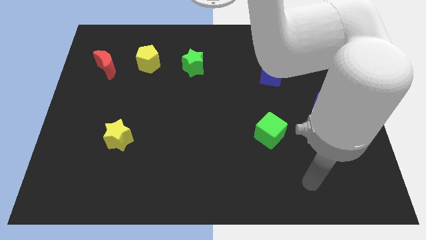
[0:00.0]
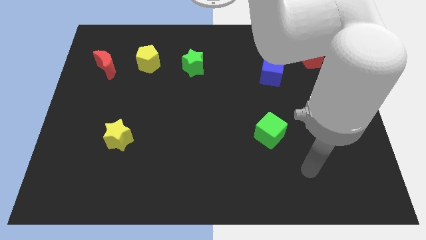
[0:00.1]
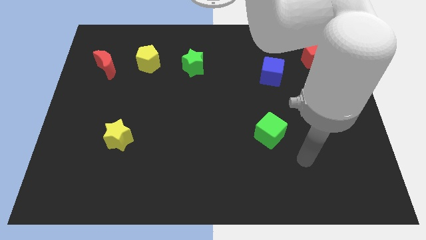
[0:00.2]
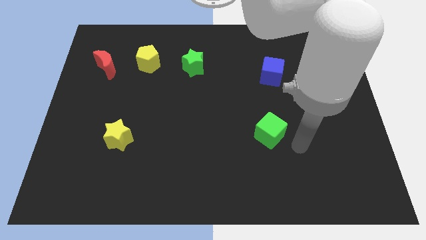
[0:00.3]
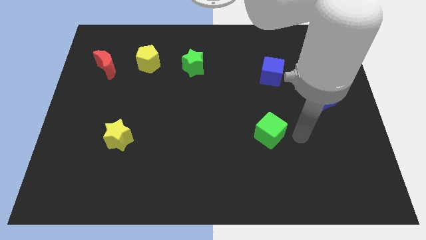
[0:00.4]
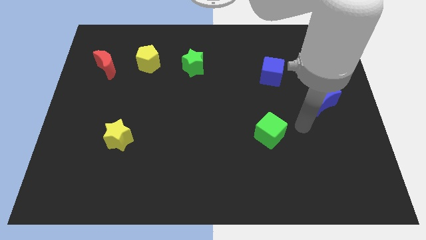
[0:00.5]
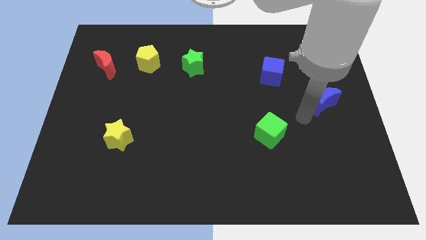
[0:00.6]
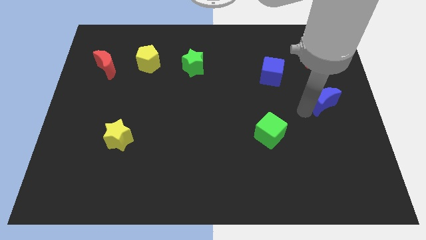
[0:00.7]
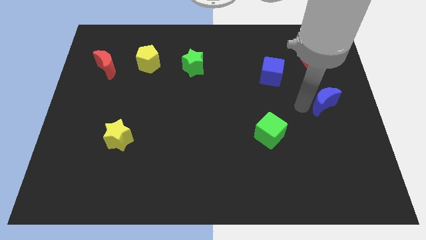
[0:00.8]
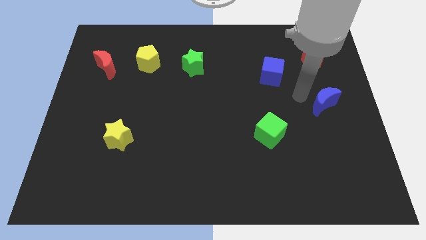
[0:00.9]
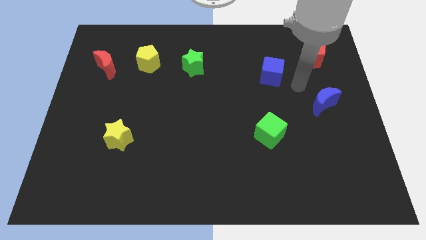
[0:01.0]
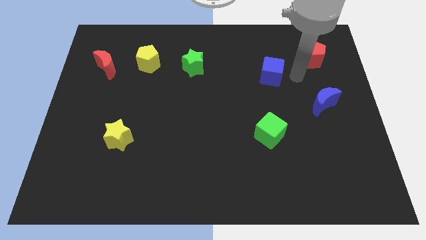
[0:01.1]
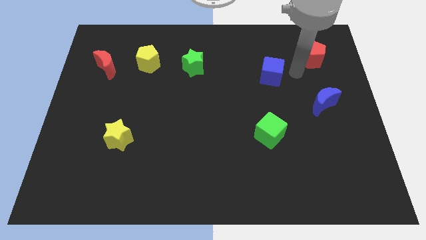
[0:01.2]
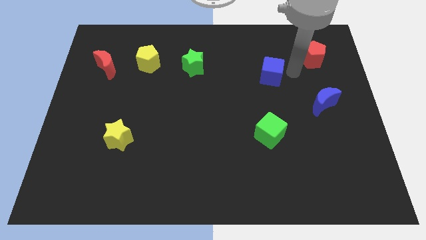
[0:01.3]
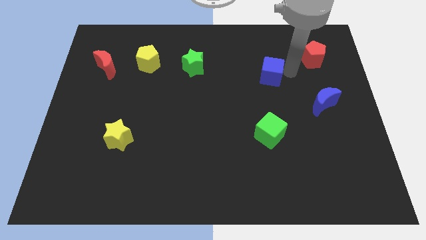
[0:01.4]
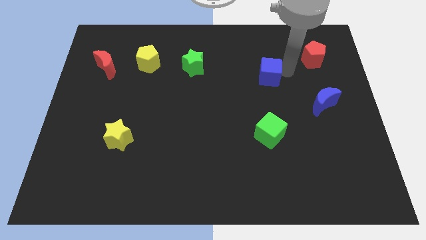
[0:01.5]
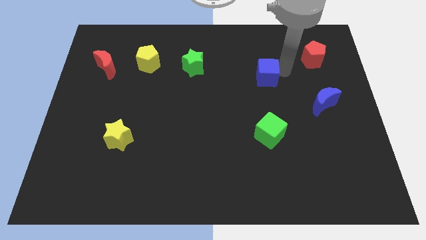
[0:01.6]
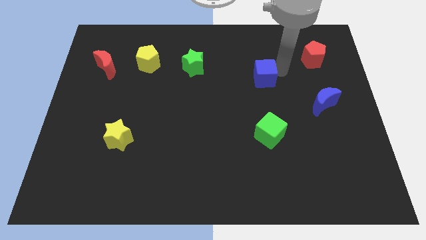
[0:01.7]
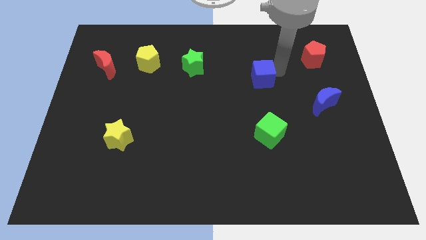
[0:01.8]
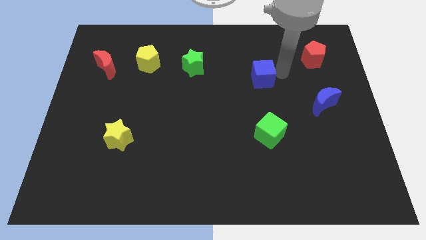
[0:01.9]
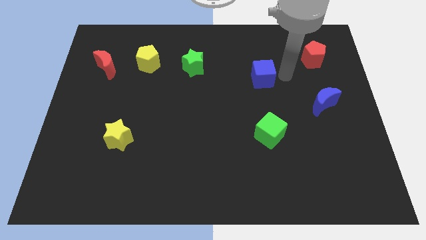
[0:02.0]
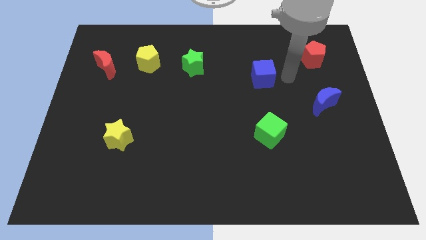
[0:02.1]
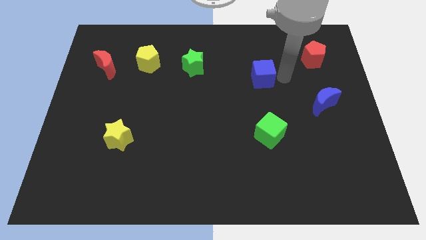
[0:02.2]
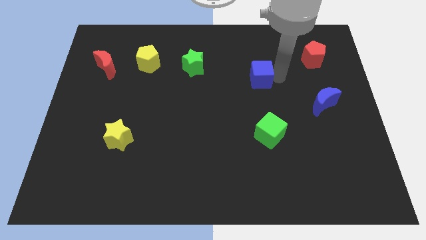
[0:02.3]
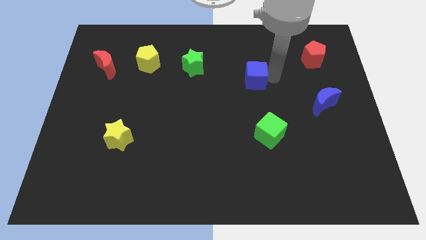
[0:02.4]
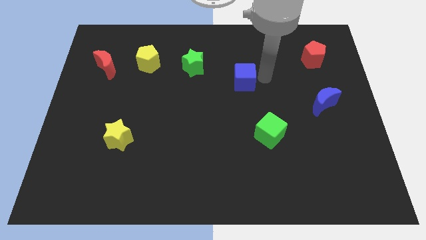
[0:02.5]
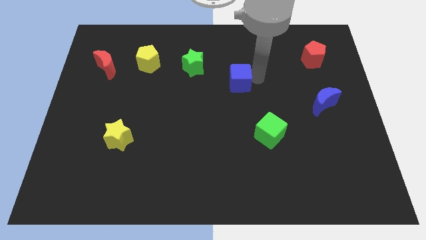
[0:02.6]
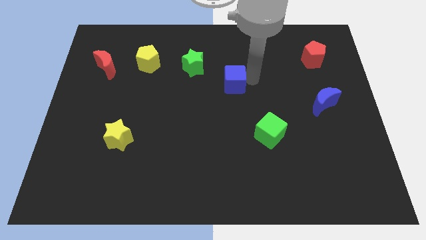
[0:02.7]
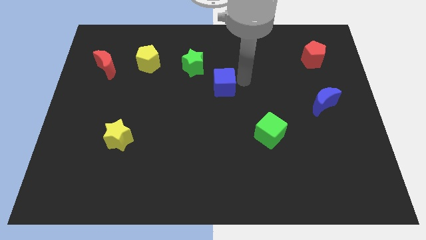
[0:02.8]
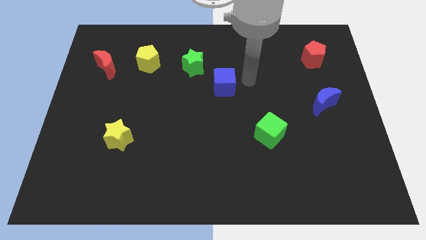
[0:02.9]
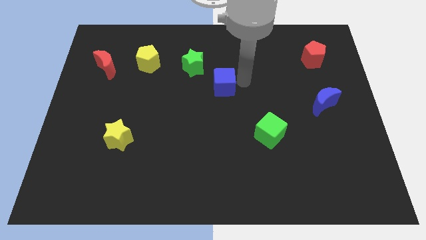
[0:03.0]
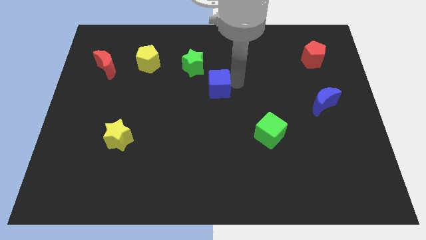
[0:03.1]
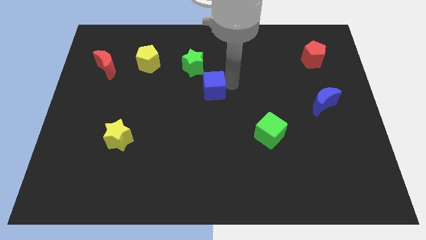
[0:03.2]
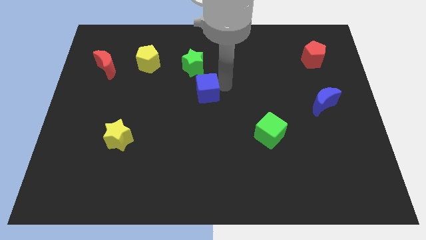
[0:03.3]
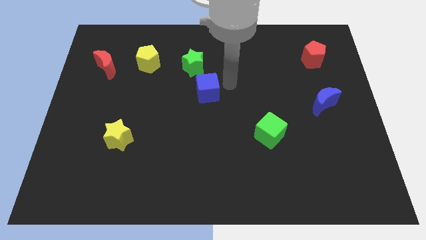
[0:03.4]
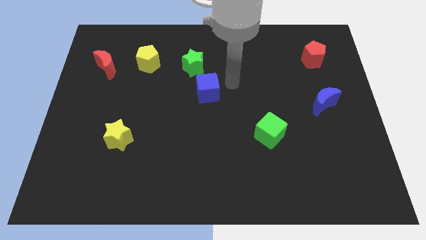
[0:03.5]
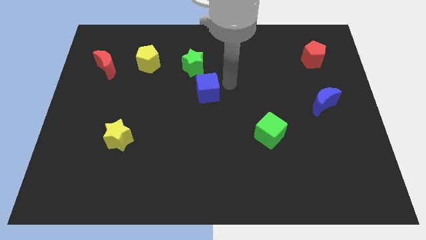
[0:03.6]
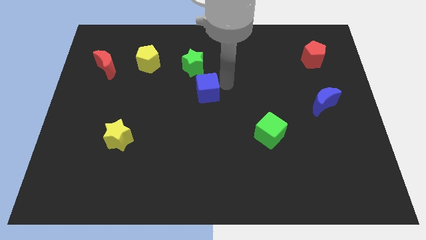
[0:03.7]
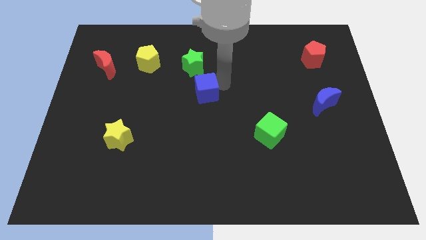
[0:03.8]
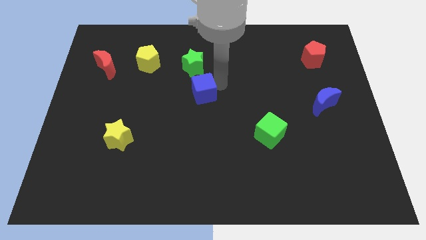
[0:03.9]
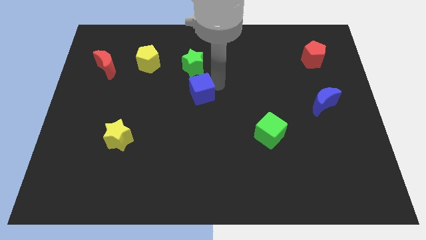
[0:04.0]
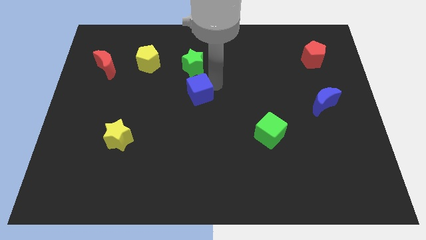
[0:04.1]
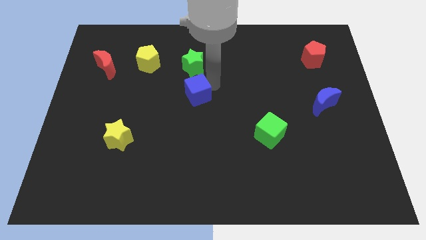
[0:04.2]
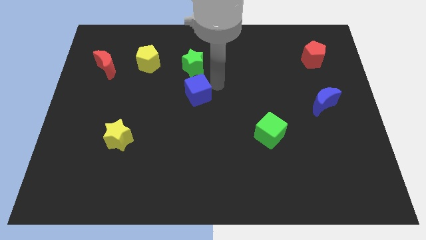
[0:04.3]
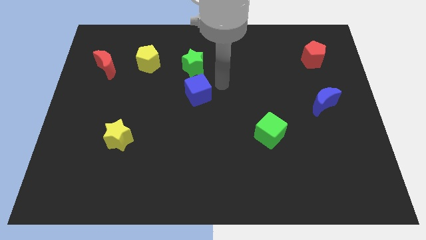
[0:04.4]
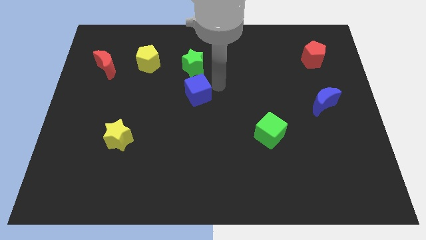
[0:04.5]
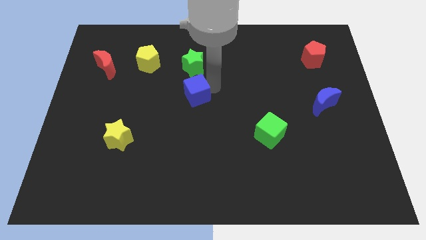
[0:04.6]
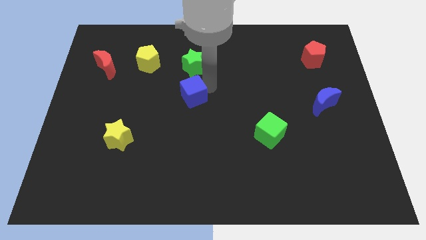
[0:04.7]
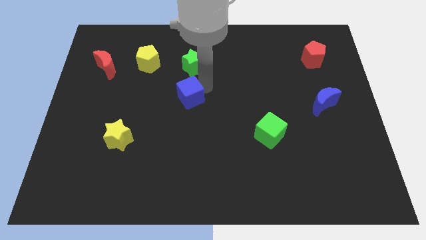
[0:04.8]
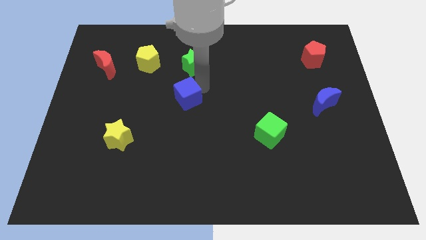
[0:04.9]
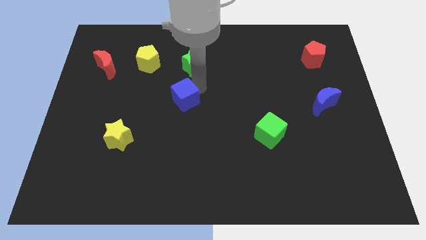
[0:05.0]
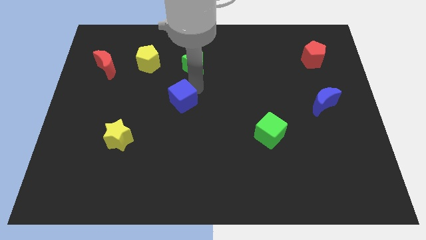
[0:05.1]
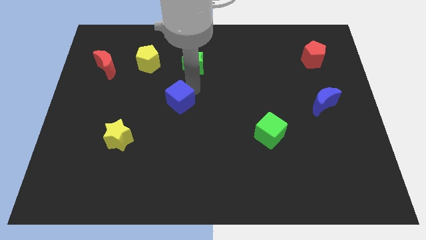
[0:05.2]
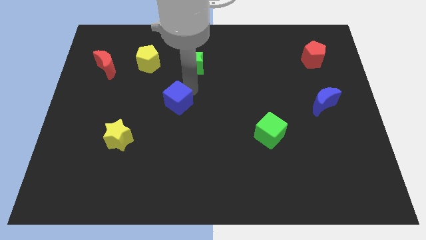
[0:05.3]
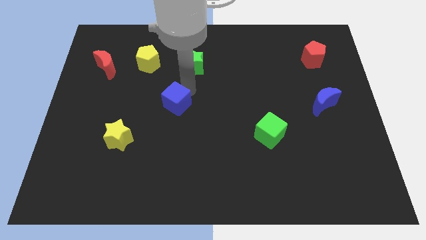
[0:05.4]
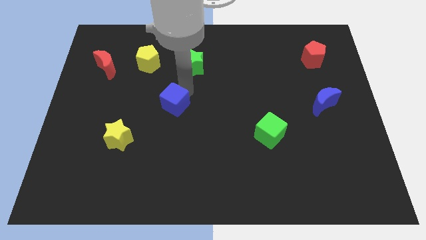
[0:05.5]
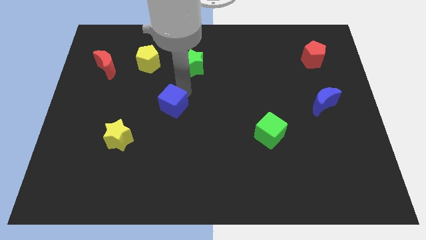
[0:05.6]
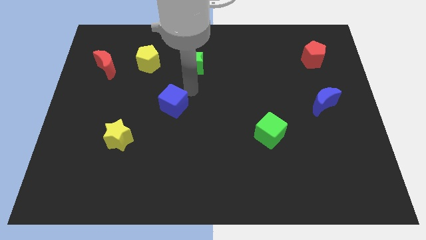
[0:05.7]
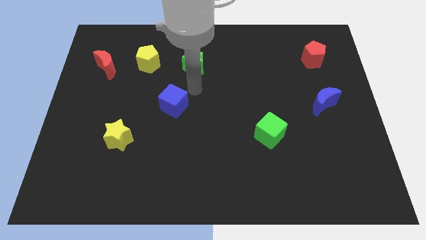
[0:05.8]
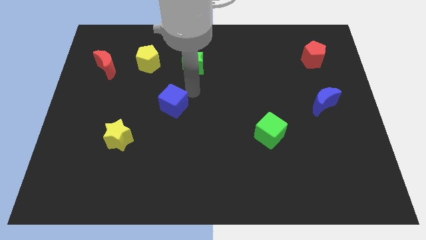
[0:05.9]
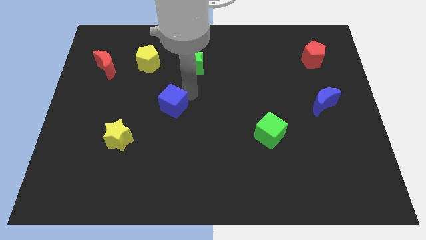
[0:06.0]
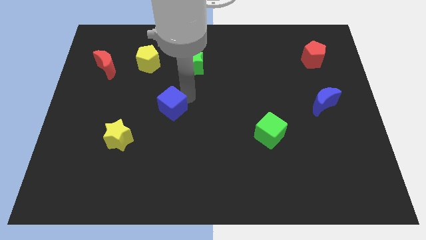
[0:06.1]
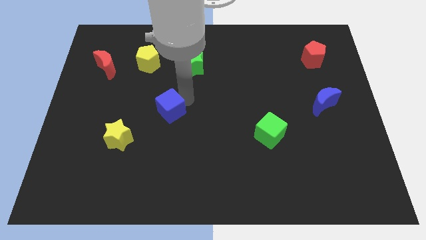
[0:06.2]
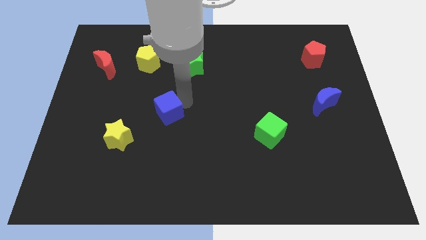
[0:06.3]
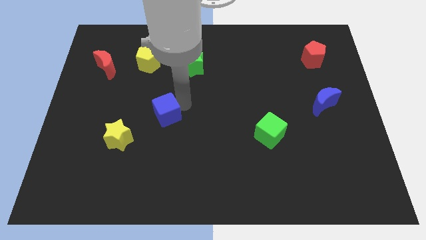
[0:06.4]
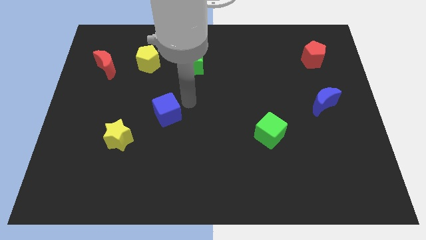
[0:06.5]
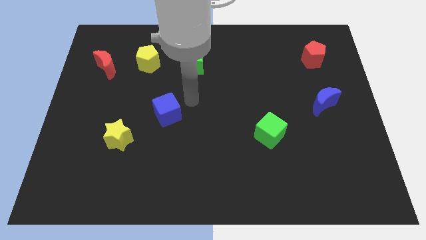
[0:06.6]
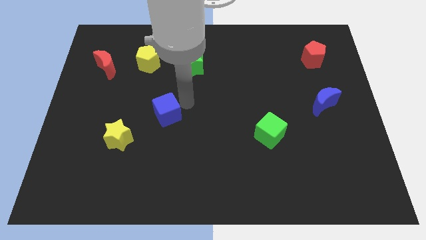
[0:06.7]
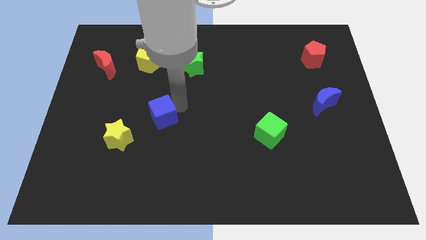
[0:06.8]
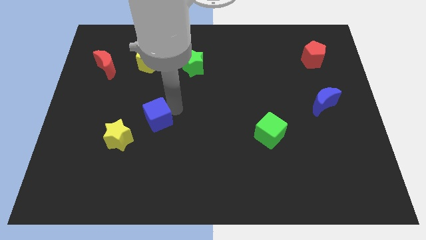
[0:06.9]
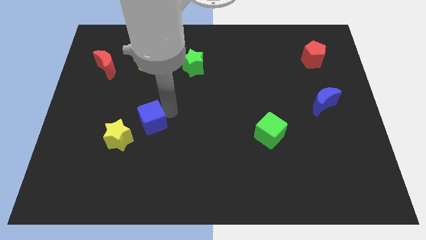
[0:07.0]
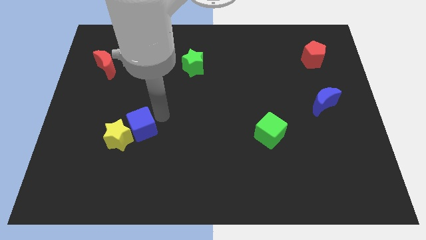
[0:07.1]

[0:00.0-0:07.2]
slide the blue cube to the yellow star
